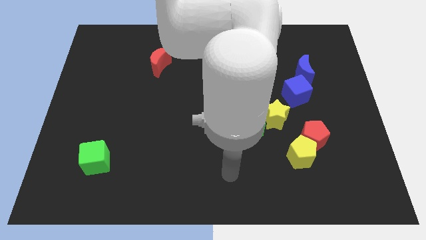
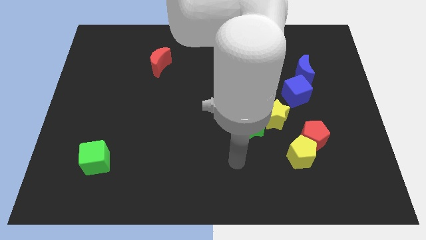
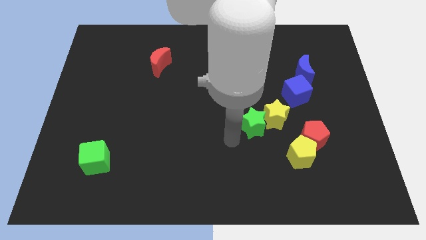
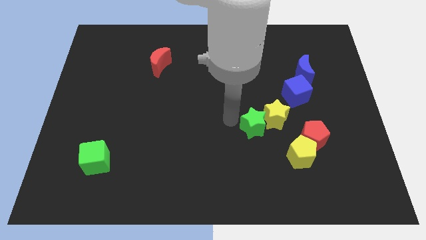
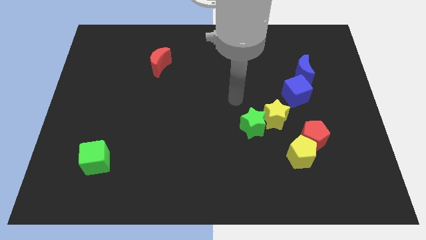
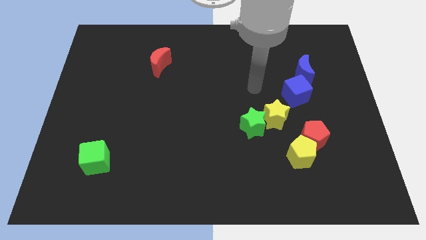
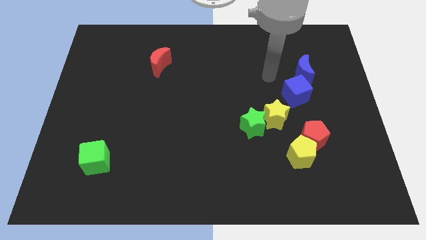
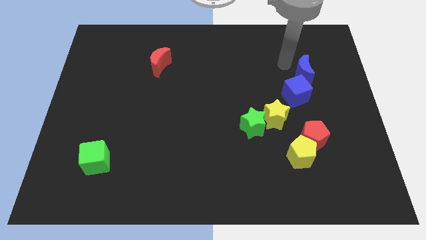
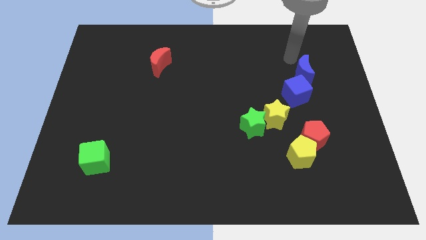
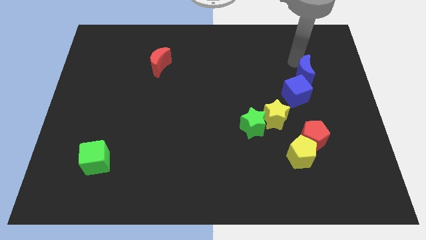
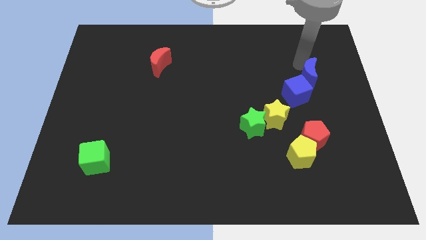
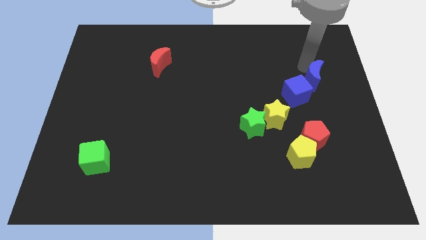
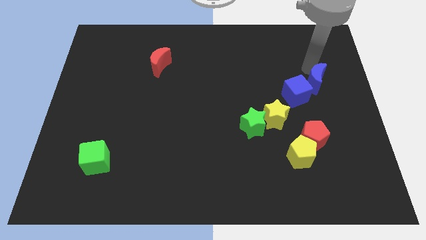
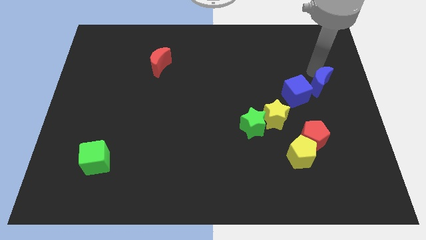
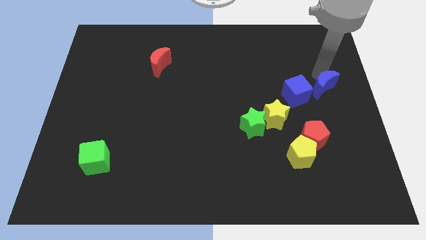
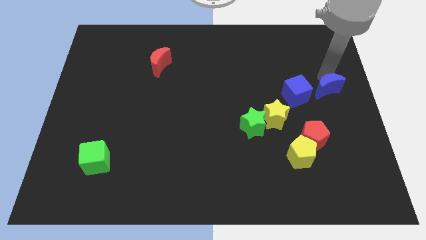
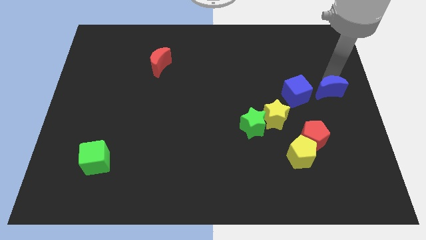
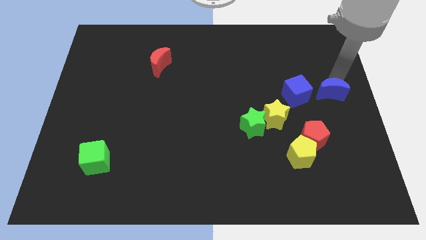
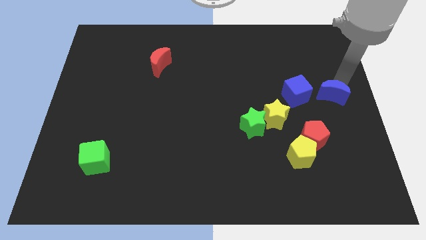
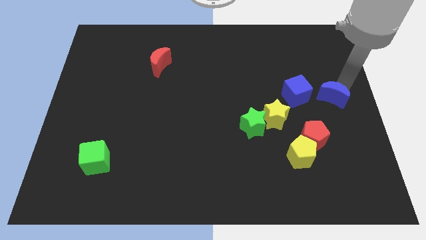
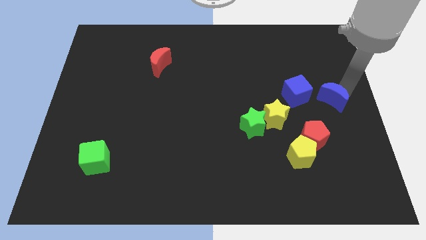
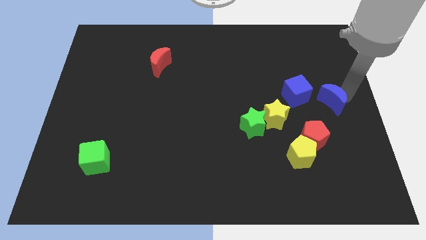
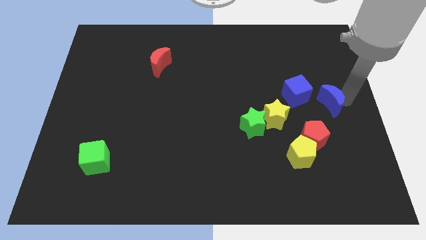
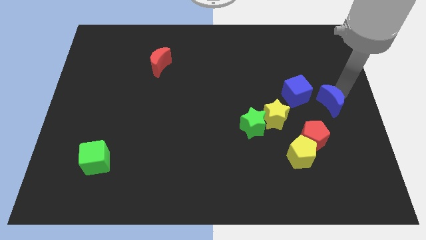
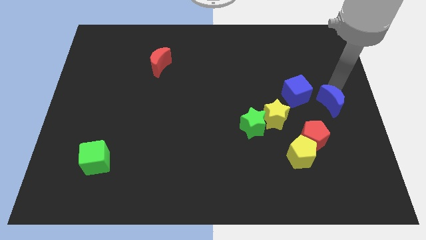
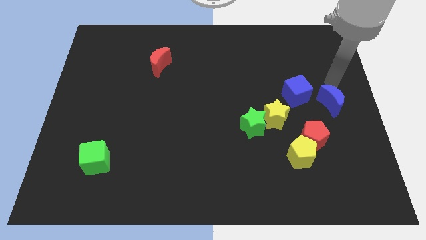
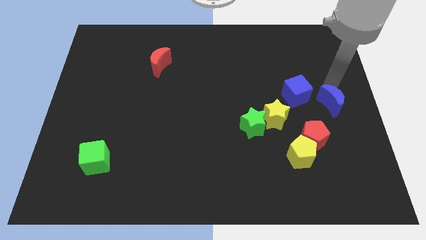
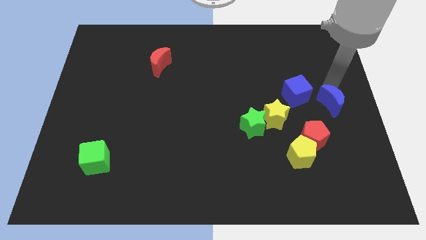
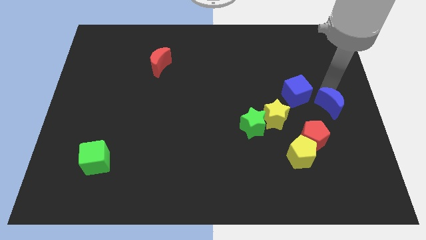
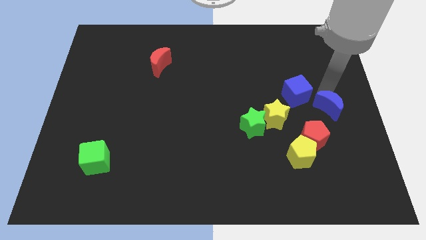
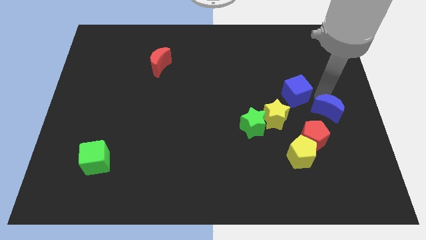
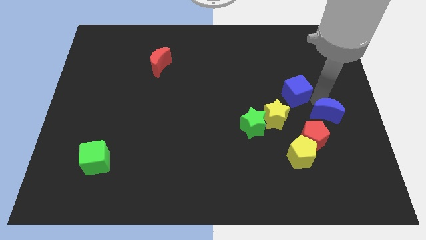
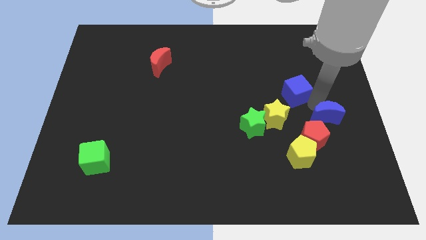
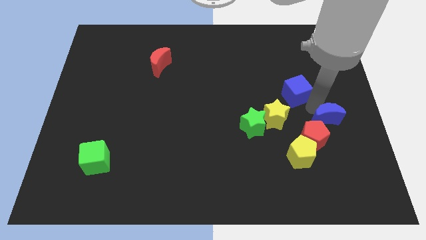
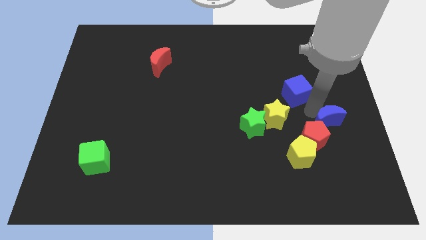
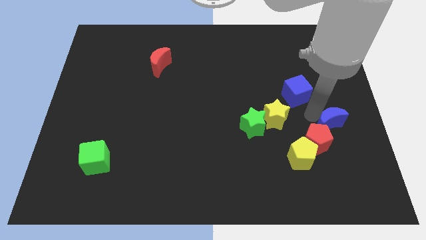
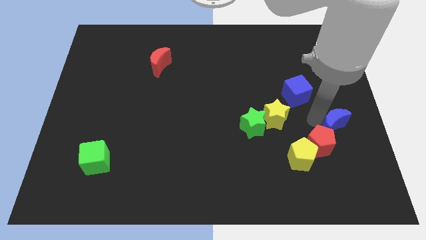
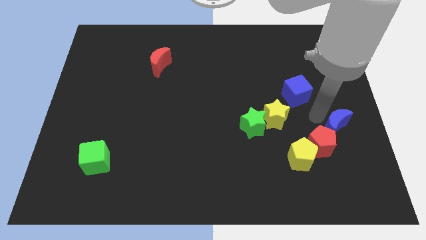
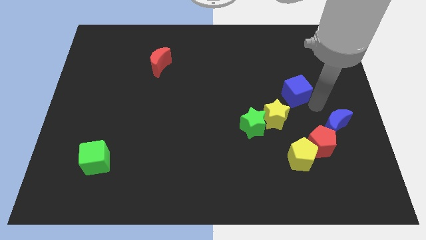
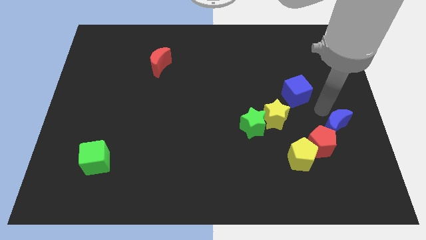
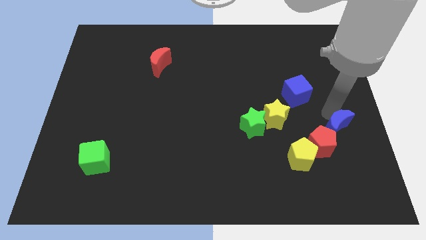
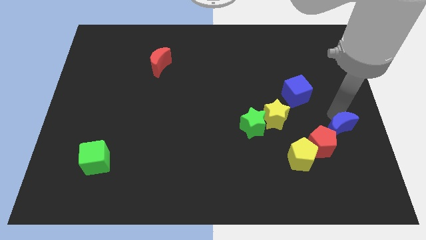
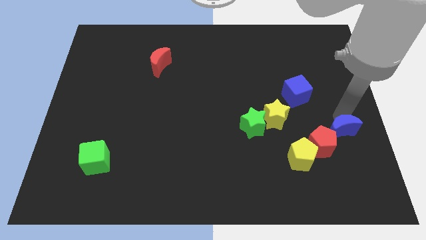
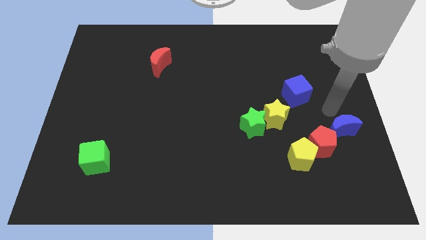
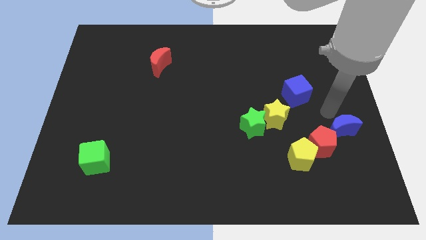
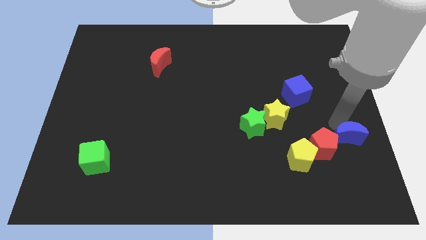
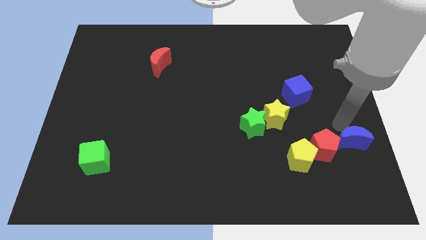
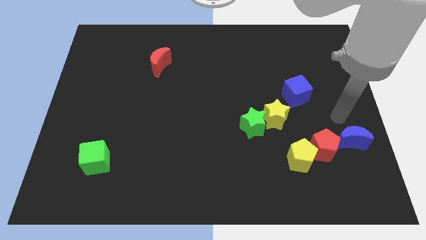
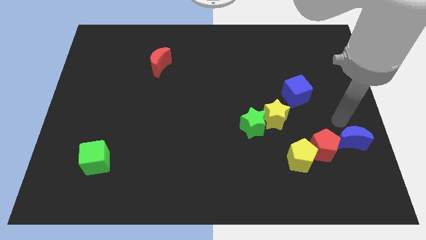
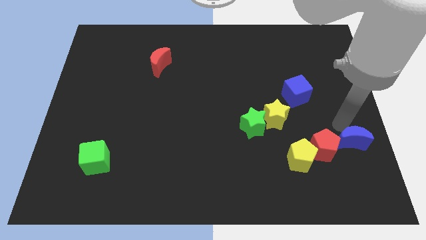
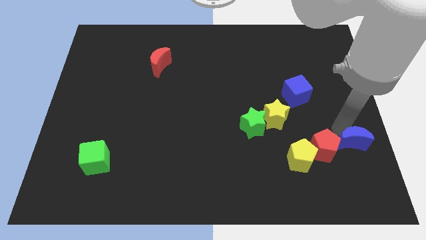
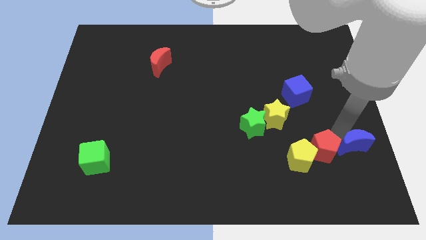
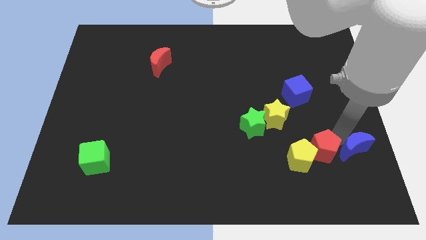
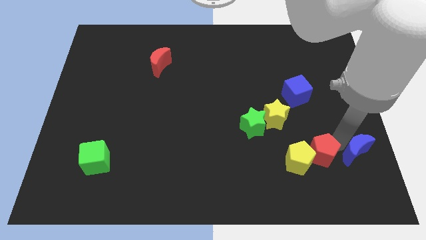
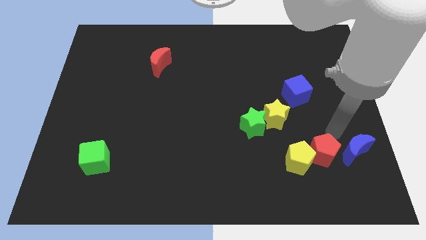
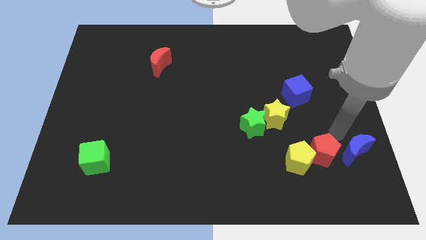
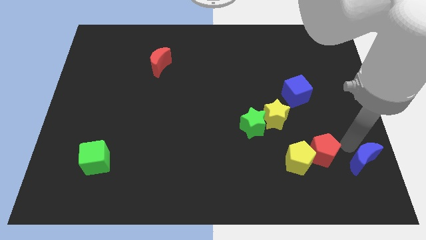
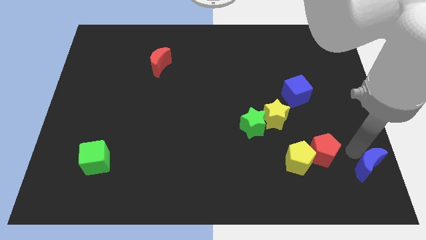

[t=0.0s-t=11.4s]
slide the blue moon to the bottom right corner

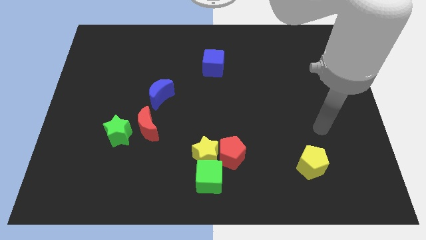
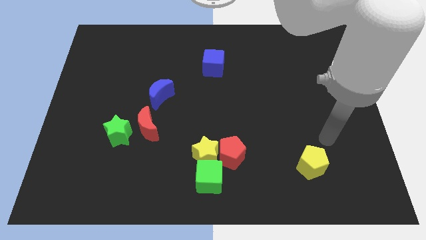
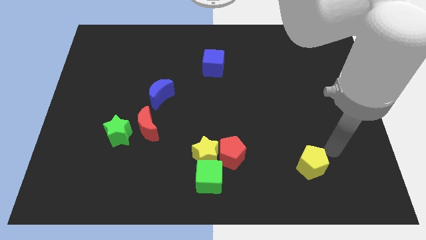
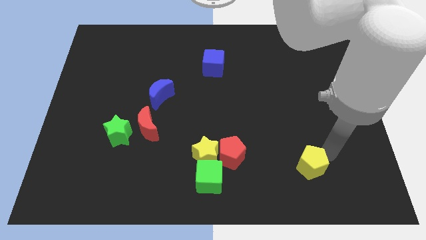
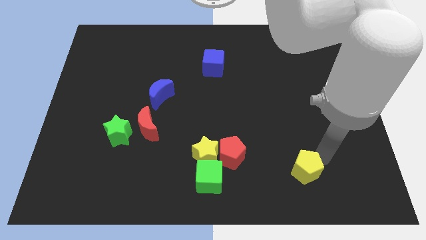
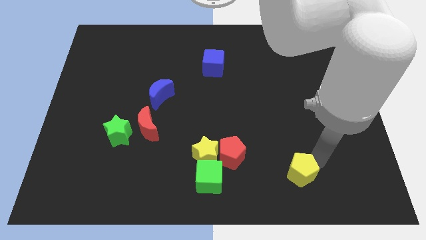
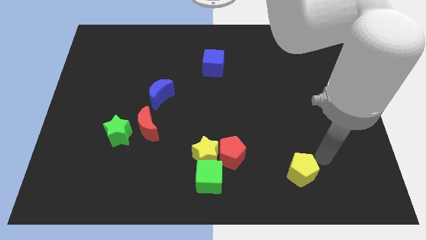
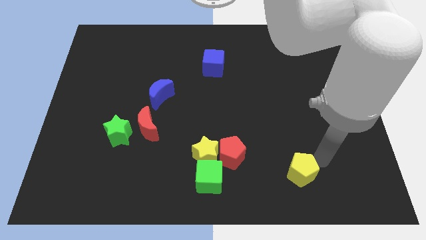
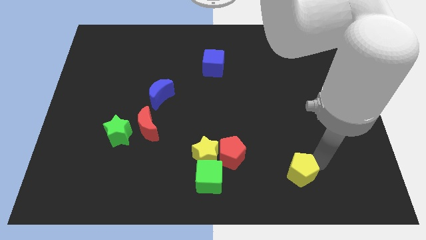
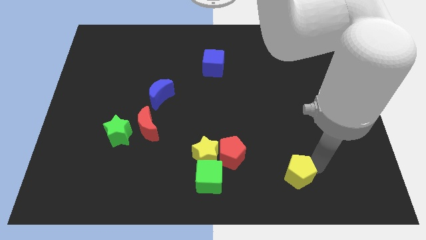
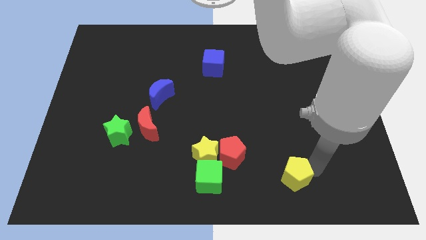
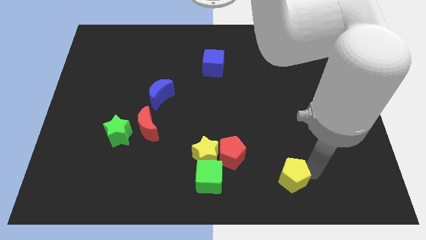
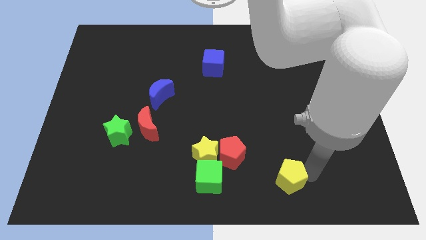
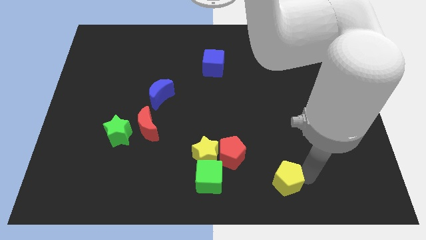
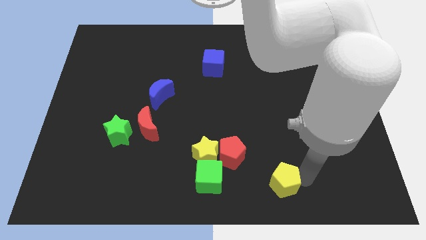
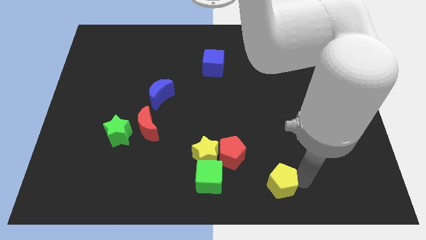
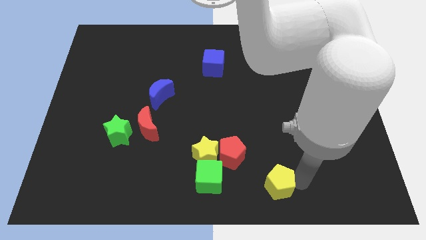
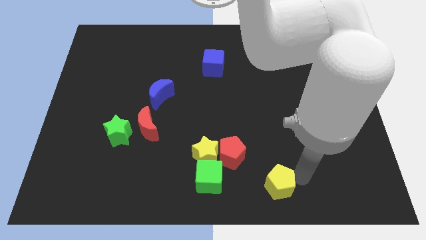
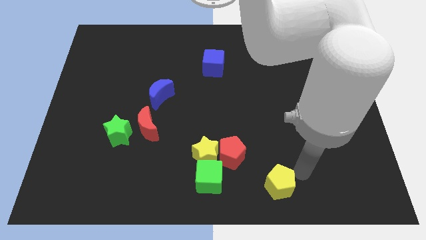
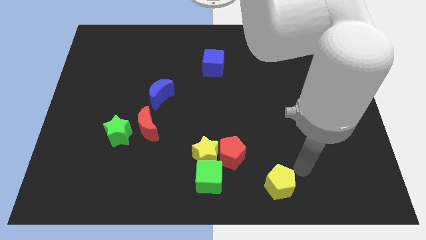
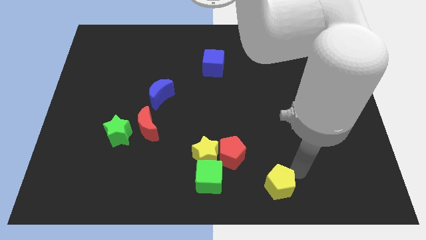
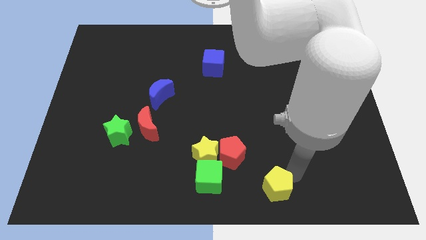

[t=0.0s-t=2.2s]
move the yellow pentagon to the bottom side
